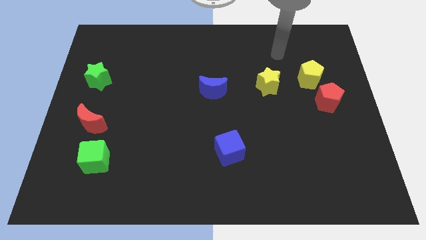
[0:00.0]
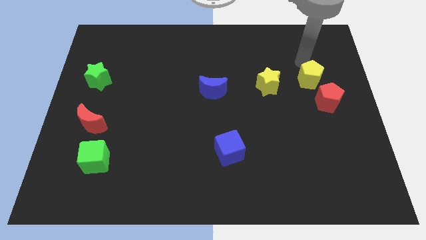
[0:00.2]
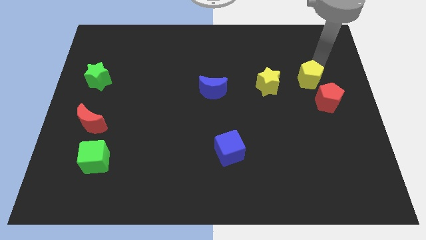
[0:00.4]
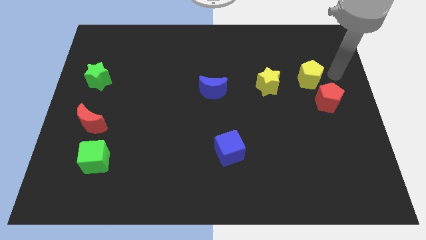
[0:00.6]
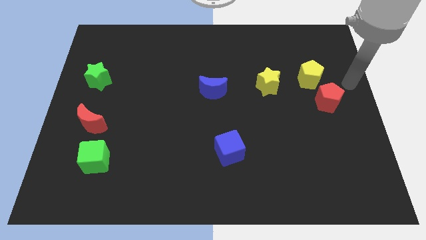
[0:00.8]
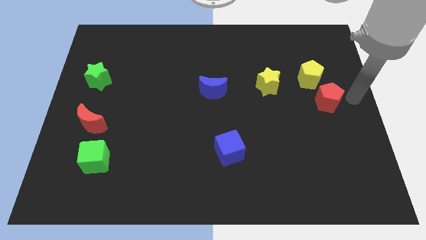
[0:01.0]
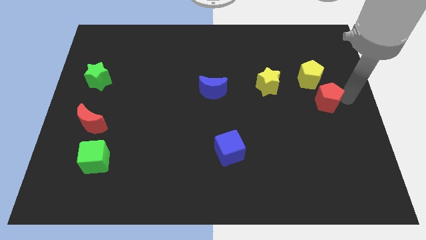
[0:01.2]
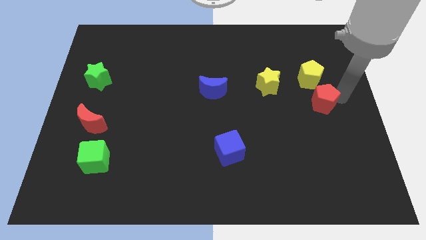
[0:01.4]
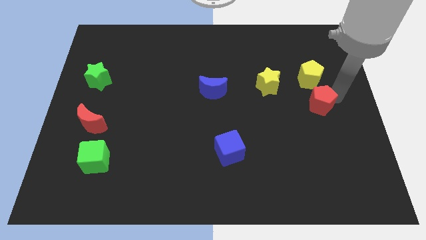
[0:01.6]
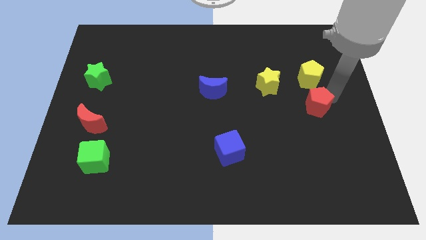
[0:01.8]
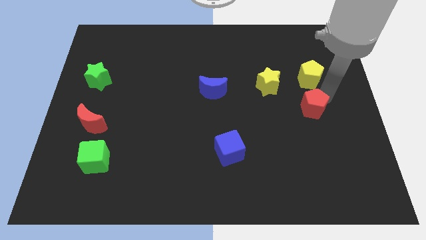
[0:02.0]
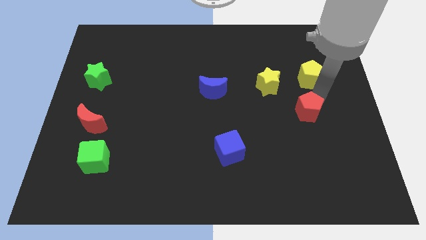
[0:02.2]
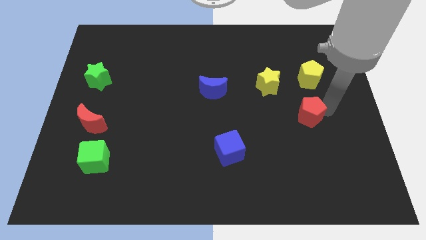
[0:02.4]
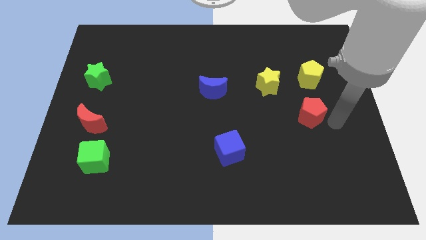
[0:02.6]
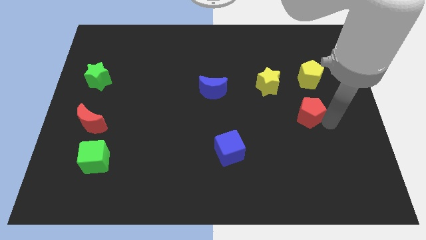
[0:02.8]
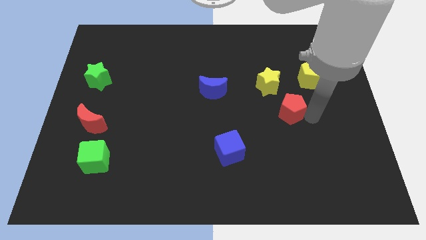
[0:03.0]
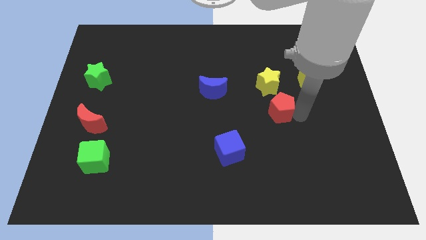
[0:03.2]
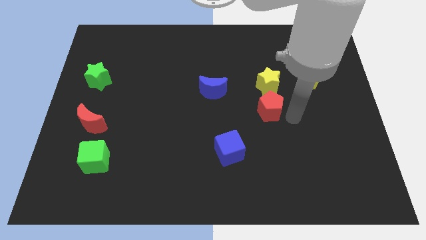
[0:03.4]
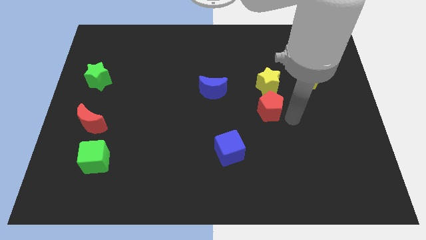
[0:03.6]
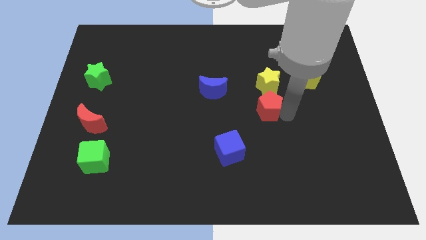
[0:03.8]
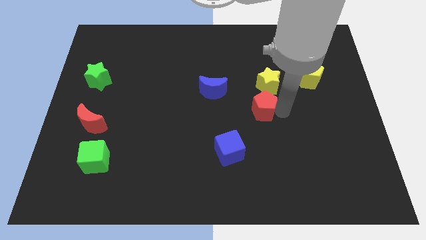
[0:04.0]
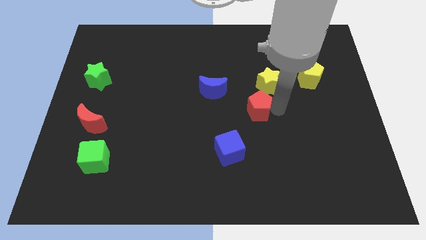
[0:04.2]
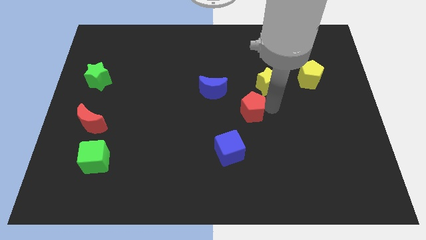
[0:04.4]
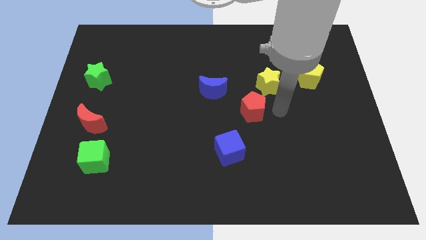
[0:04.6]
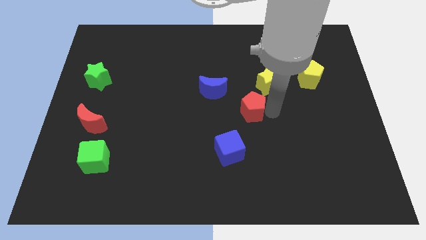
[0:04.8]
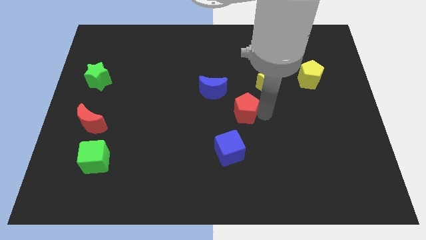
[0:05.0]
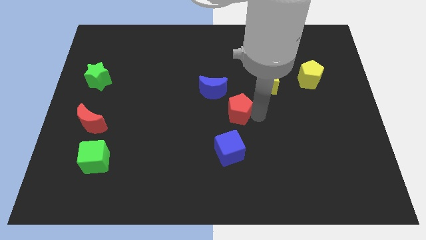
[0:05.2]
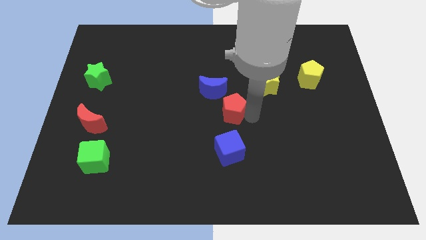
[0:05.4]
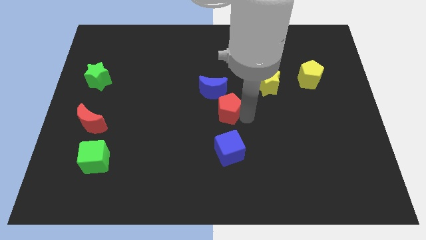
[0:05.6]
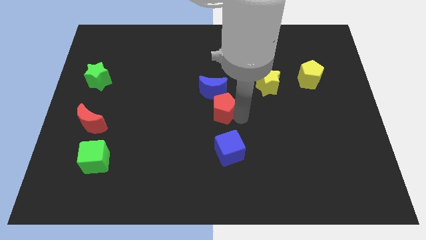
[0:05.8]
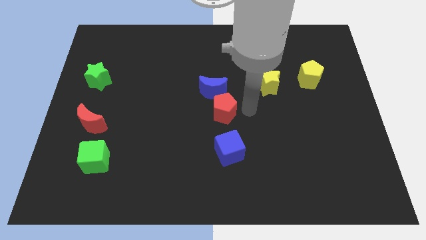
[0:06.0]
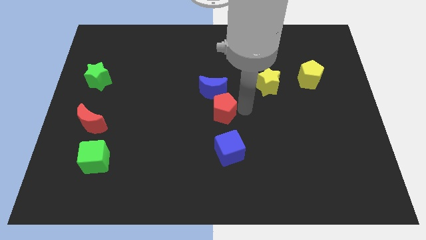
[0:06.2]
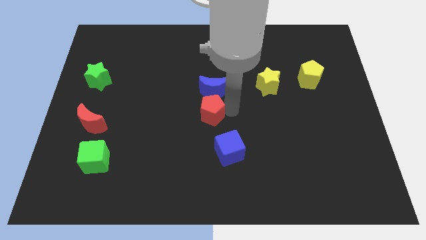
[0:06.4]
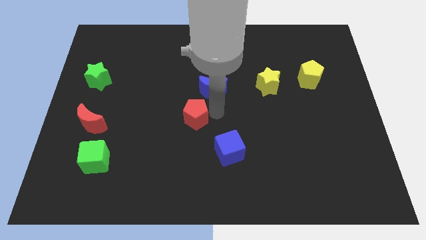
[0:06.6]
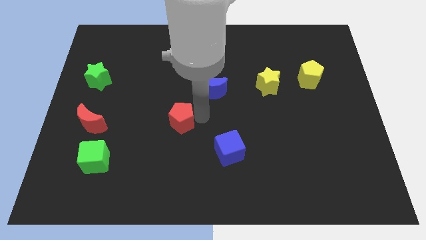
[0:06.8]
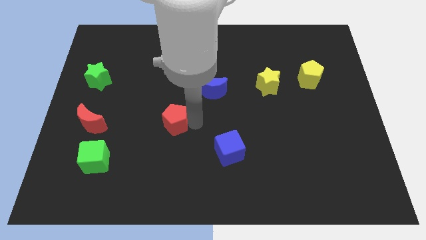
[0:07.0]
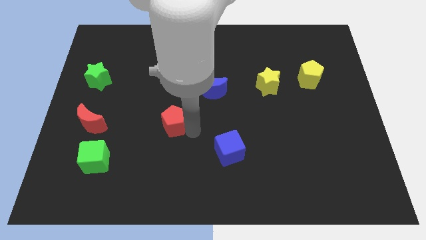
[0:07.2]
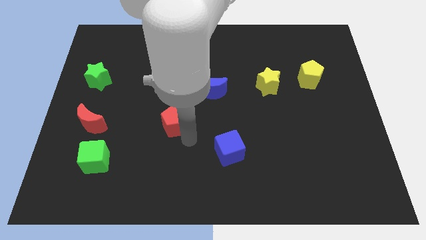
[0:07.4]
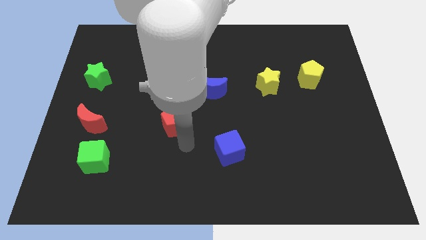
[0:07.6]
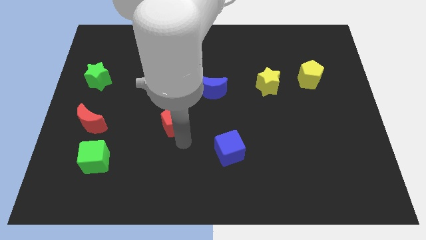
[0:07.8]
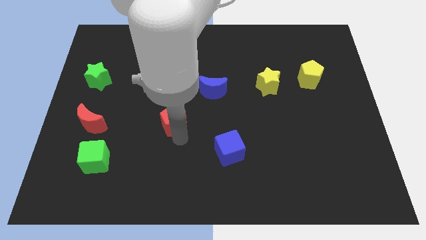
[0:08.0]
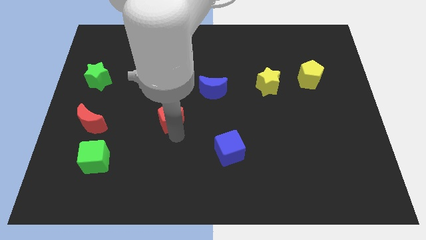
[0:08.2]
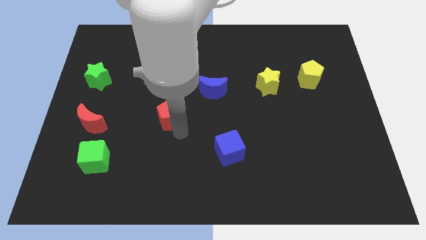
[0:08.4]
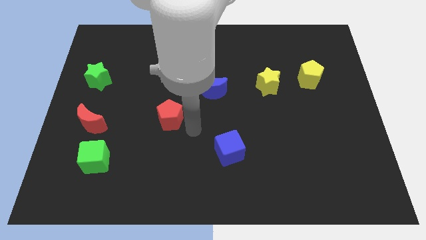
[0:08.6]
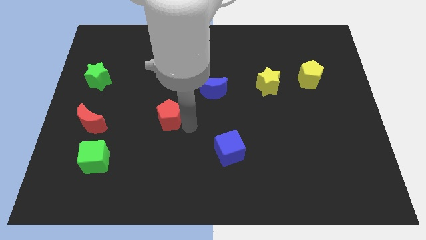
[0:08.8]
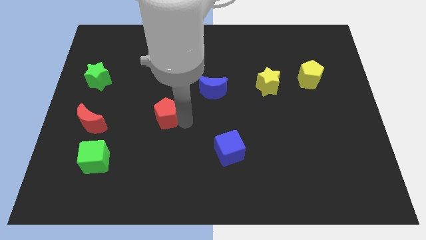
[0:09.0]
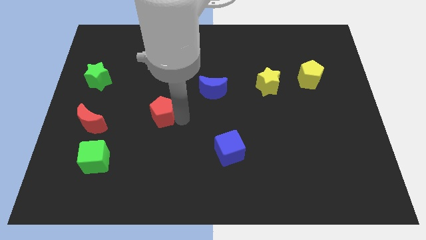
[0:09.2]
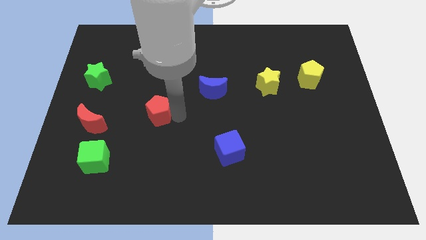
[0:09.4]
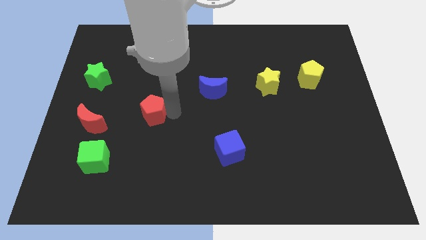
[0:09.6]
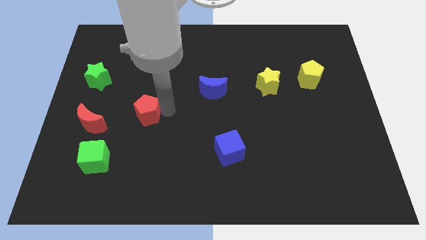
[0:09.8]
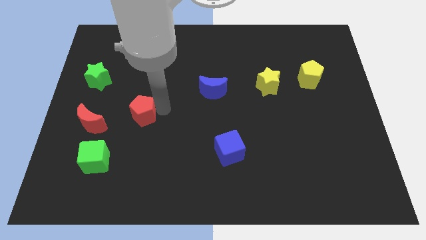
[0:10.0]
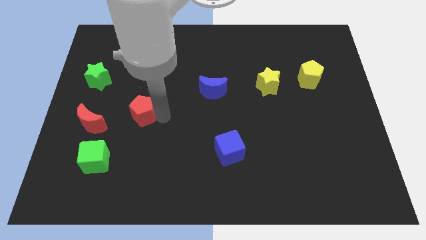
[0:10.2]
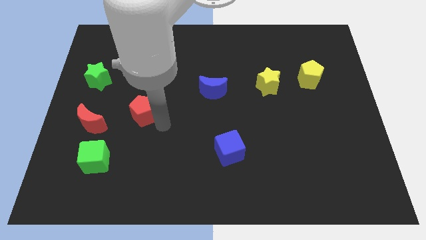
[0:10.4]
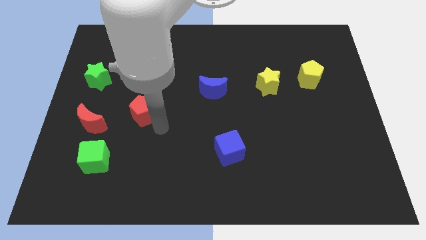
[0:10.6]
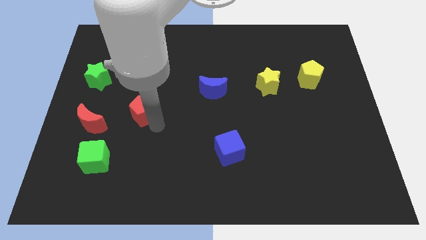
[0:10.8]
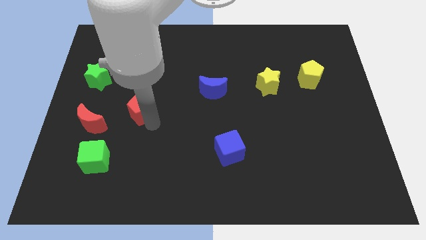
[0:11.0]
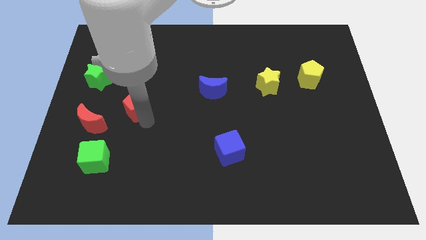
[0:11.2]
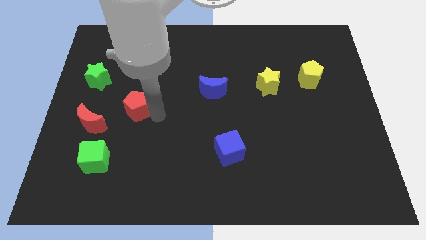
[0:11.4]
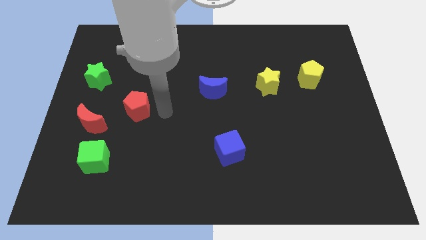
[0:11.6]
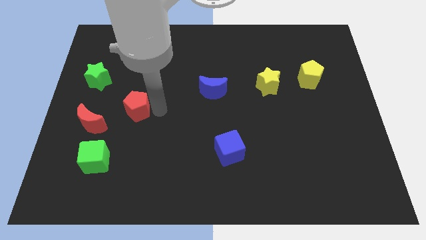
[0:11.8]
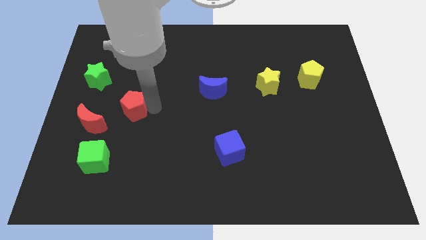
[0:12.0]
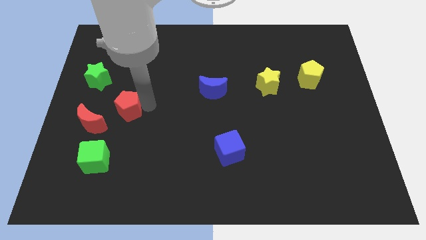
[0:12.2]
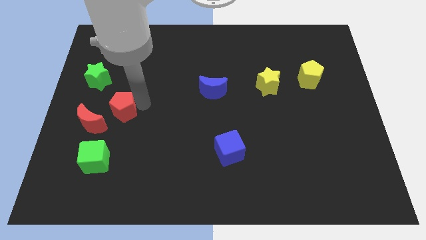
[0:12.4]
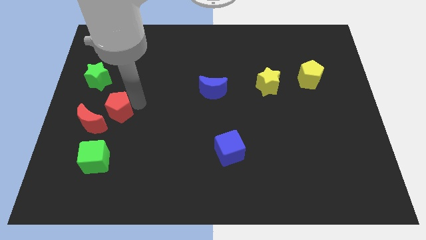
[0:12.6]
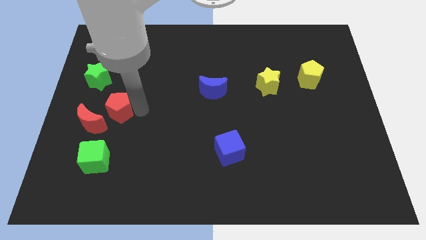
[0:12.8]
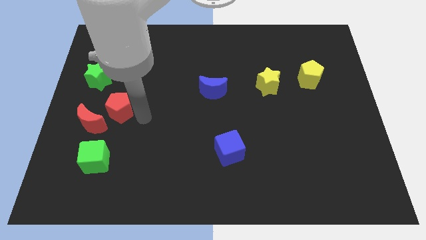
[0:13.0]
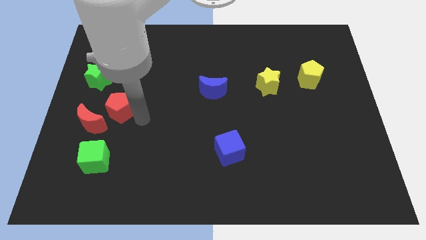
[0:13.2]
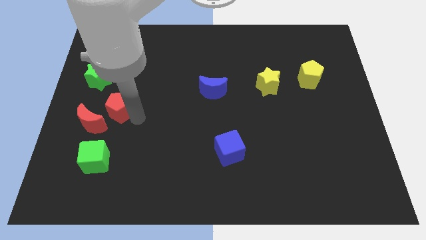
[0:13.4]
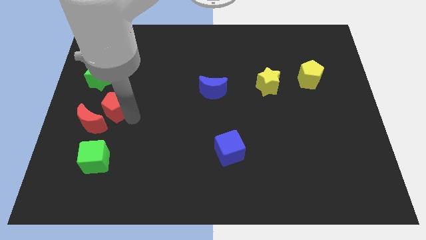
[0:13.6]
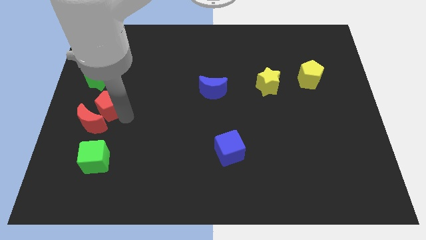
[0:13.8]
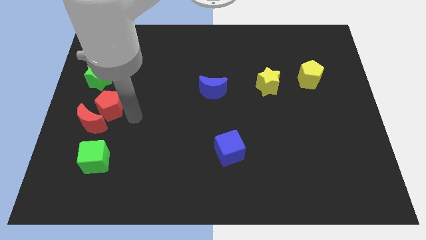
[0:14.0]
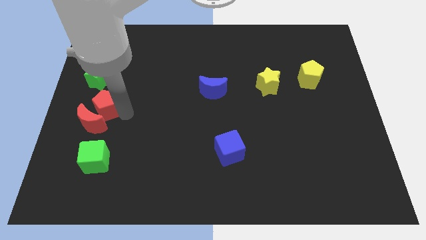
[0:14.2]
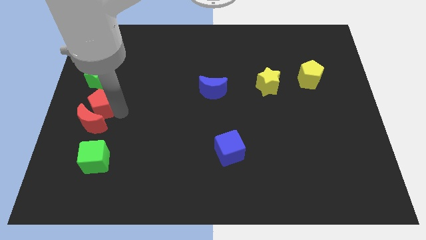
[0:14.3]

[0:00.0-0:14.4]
put the red pentagon to the left side of the board
